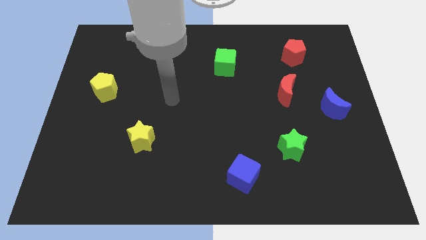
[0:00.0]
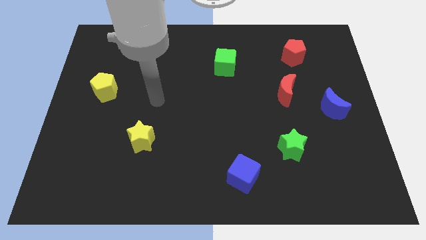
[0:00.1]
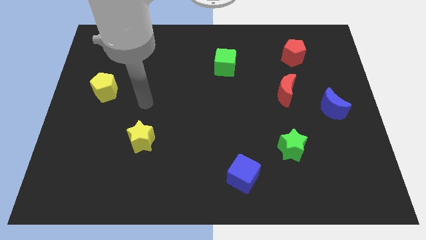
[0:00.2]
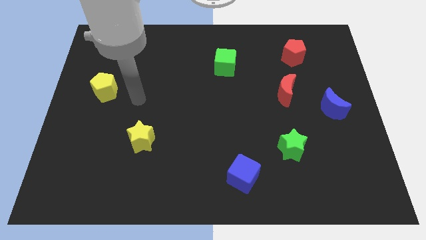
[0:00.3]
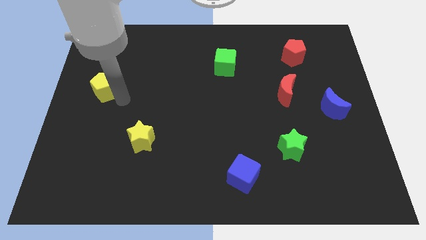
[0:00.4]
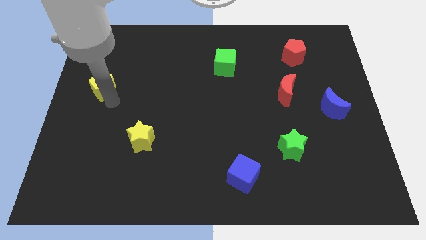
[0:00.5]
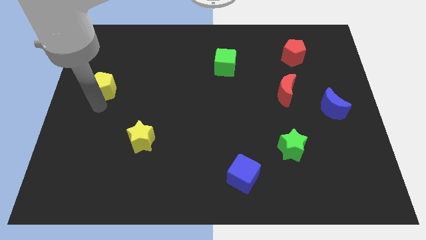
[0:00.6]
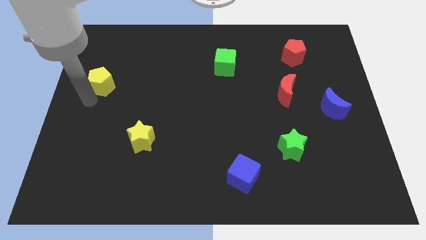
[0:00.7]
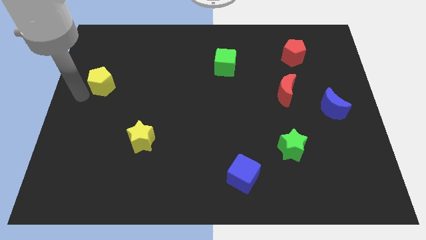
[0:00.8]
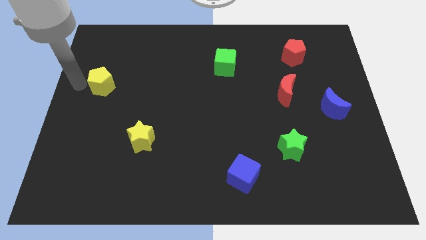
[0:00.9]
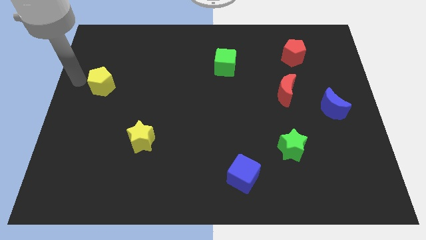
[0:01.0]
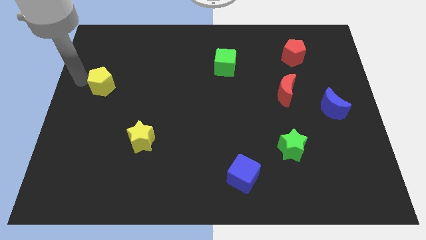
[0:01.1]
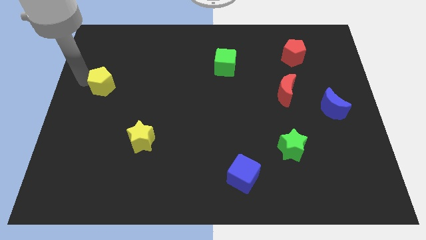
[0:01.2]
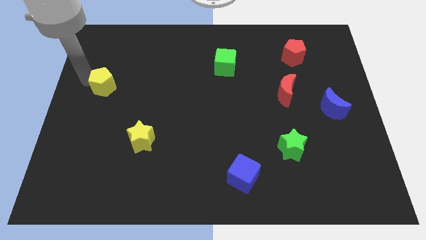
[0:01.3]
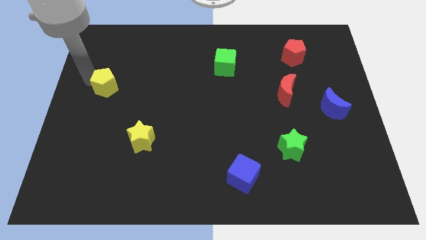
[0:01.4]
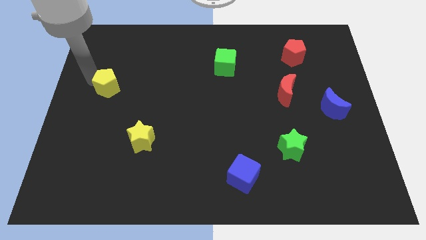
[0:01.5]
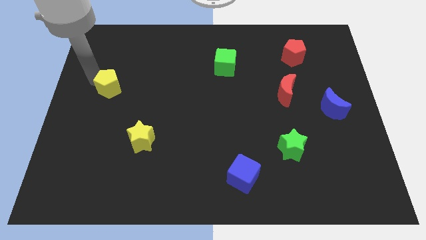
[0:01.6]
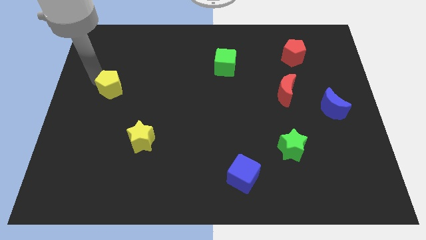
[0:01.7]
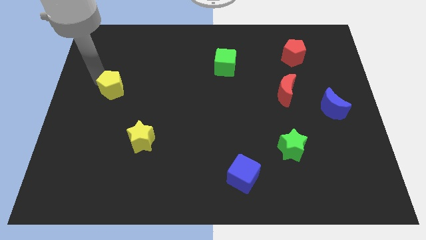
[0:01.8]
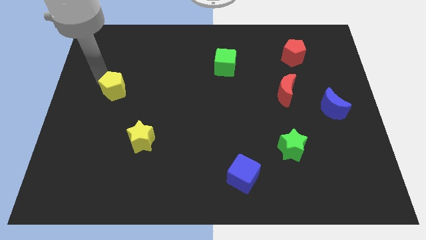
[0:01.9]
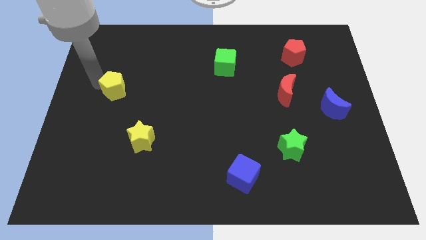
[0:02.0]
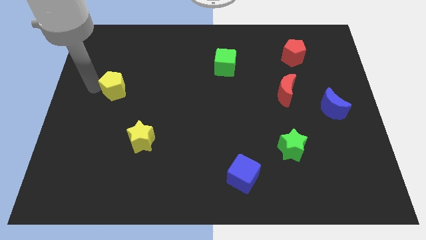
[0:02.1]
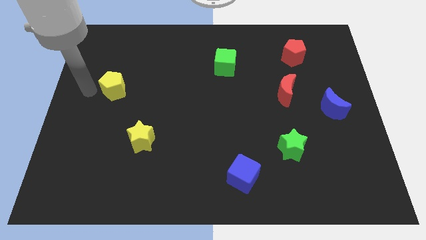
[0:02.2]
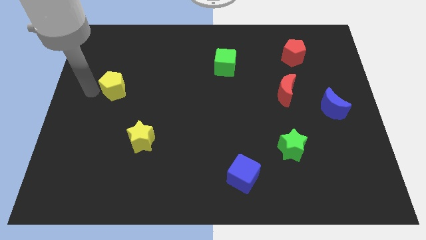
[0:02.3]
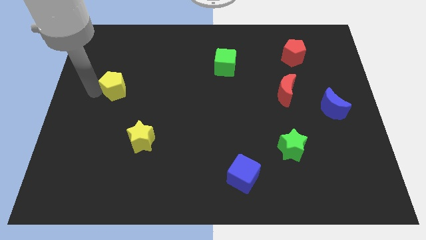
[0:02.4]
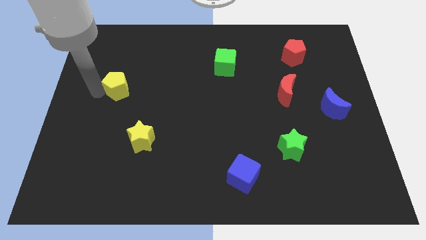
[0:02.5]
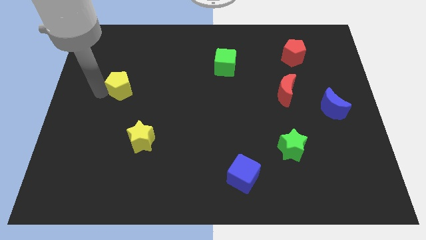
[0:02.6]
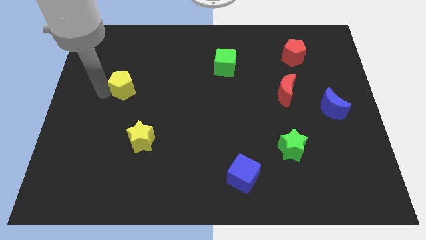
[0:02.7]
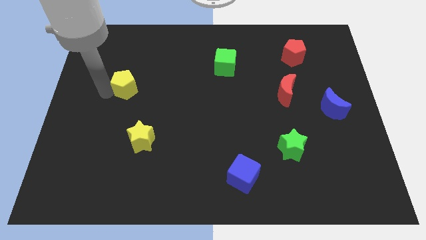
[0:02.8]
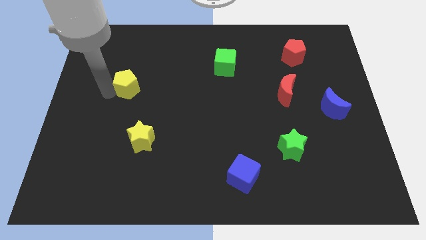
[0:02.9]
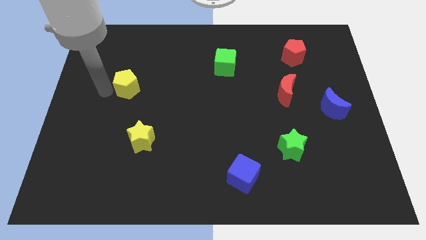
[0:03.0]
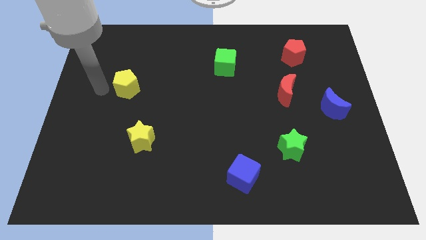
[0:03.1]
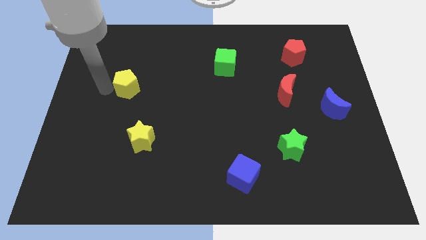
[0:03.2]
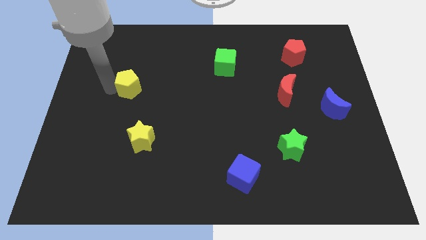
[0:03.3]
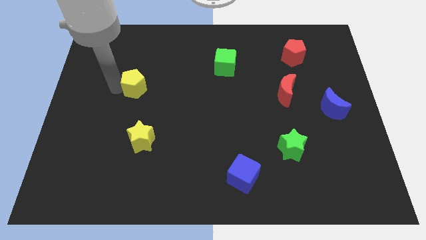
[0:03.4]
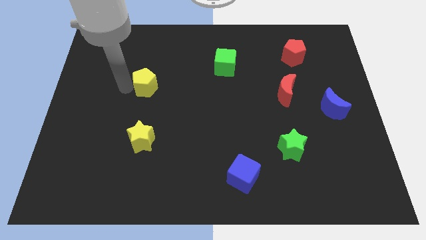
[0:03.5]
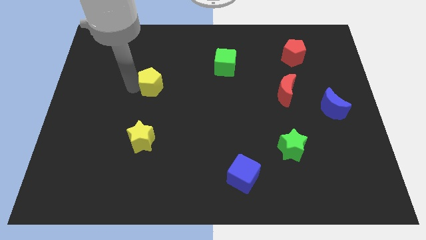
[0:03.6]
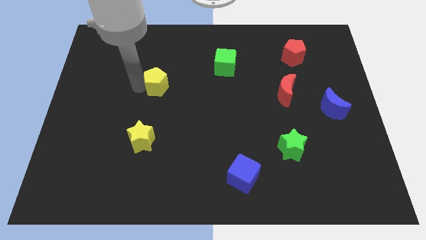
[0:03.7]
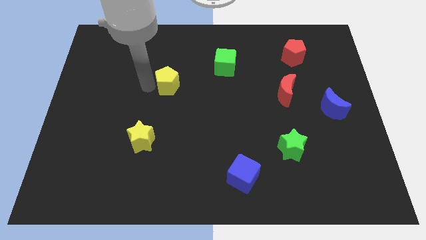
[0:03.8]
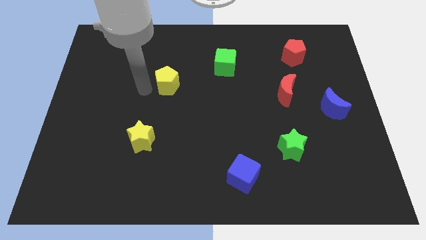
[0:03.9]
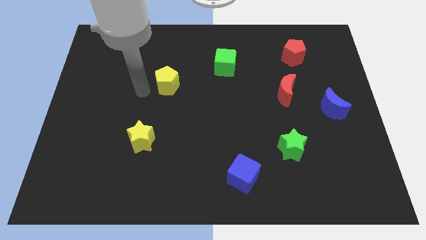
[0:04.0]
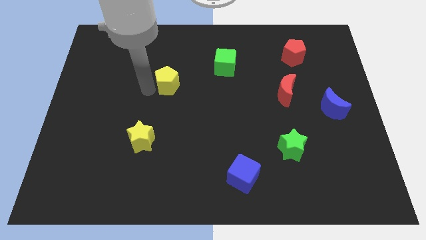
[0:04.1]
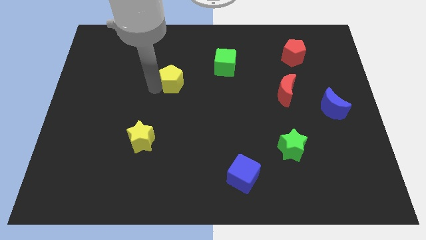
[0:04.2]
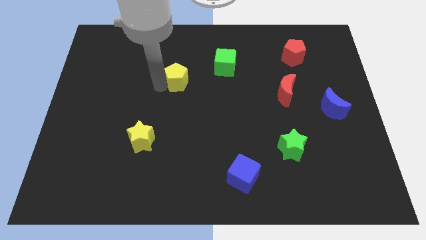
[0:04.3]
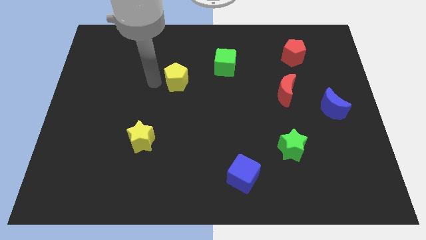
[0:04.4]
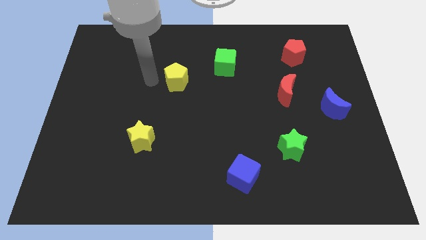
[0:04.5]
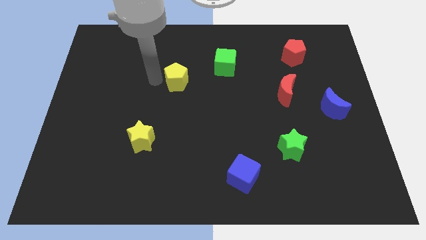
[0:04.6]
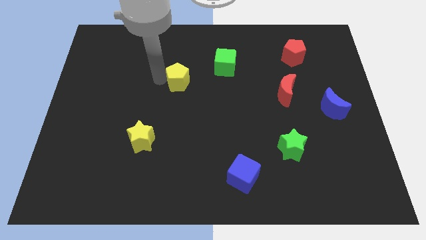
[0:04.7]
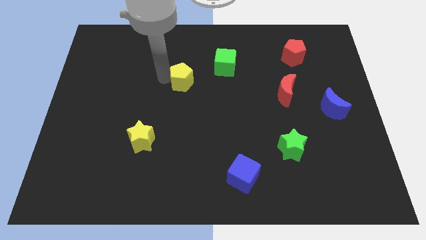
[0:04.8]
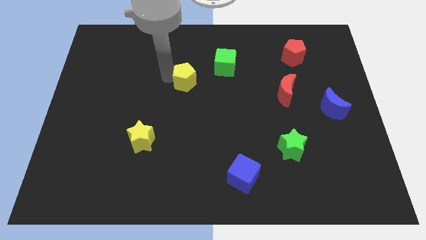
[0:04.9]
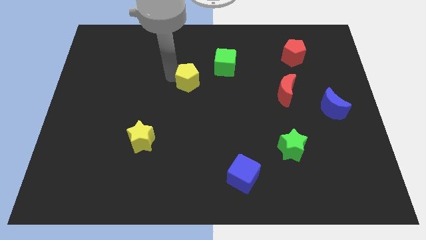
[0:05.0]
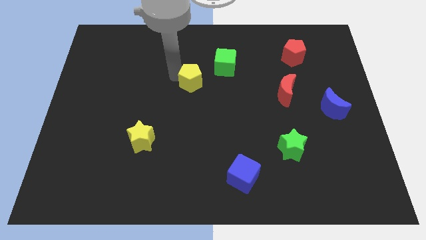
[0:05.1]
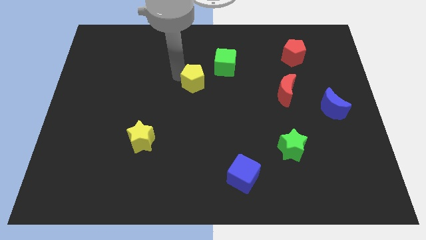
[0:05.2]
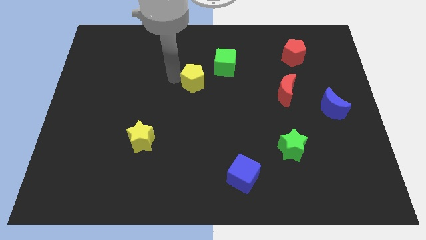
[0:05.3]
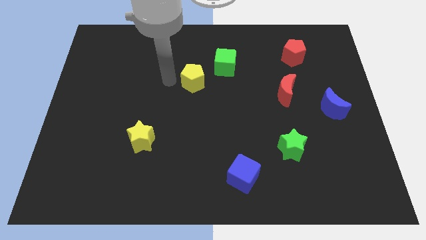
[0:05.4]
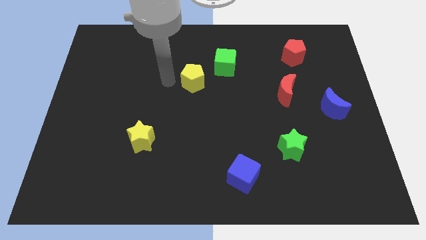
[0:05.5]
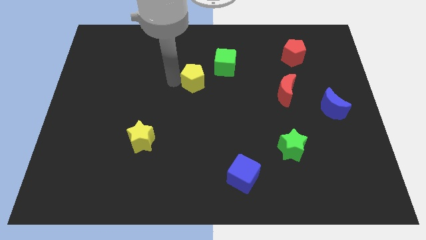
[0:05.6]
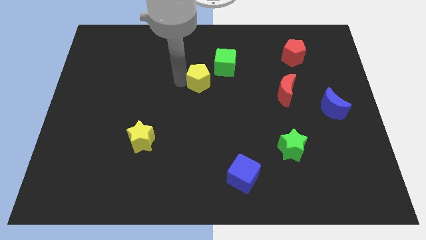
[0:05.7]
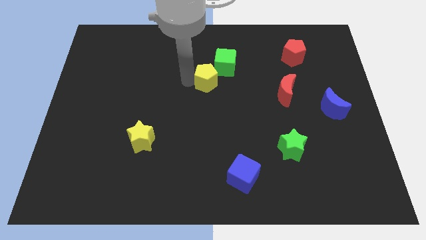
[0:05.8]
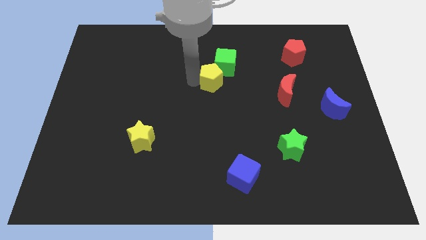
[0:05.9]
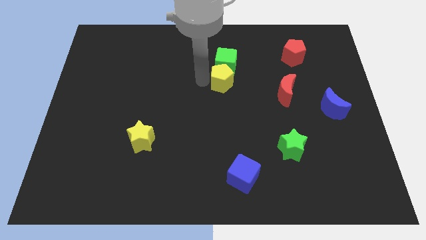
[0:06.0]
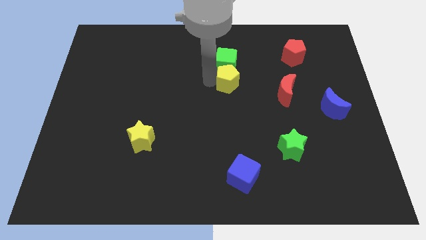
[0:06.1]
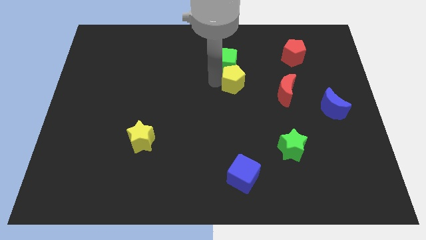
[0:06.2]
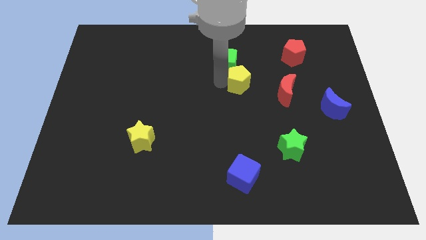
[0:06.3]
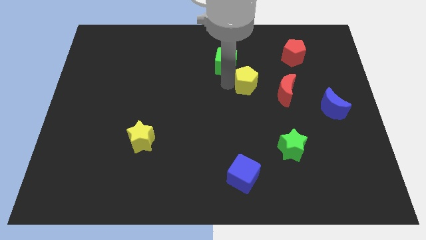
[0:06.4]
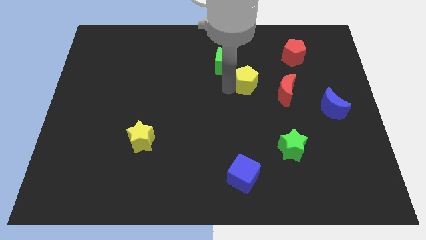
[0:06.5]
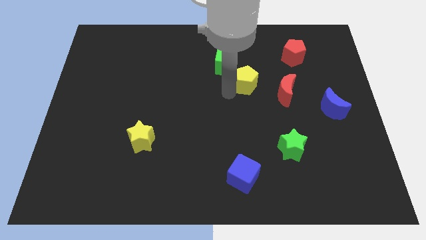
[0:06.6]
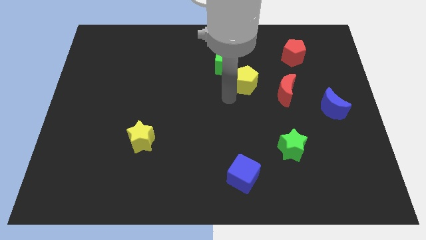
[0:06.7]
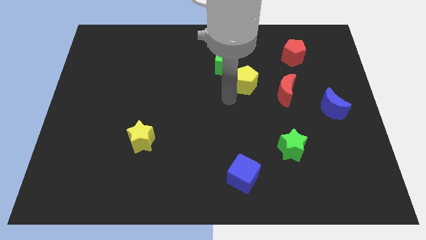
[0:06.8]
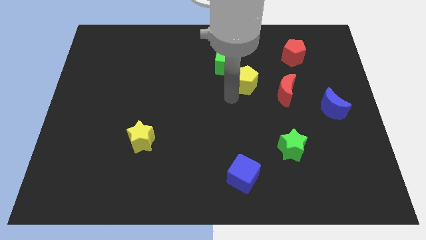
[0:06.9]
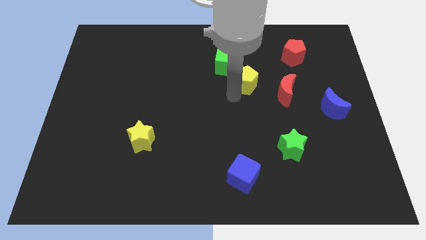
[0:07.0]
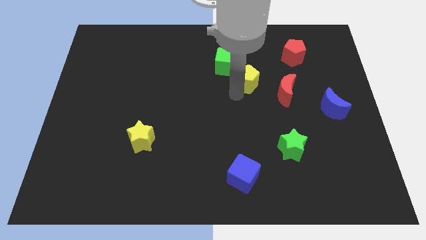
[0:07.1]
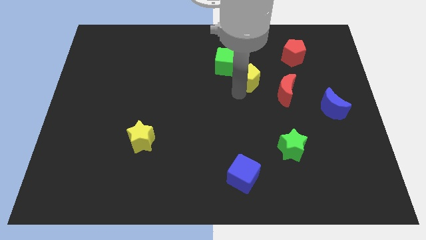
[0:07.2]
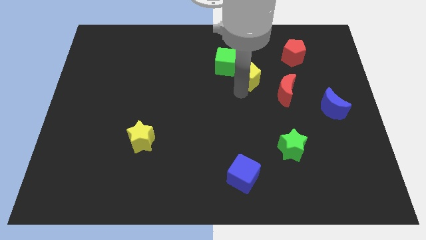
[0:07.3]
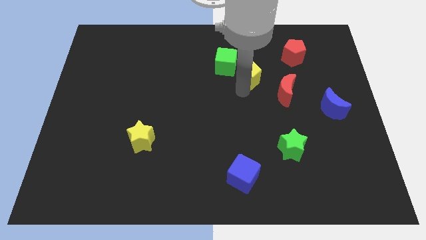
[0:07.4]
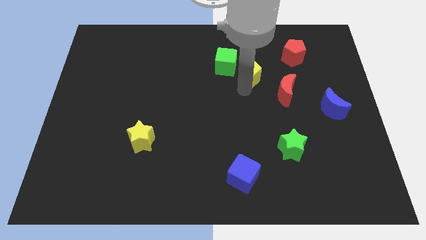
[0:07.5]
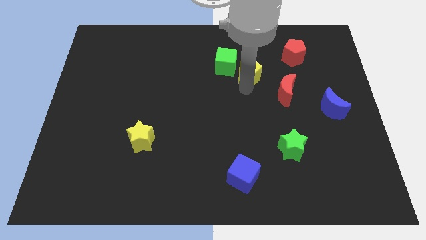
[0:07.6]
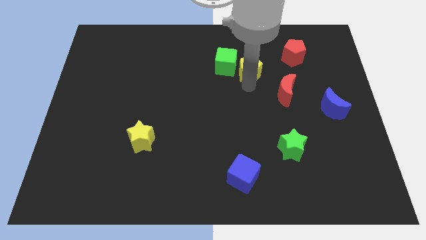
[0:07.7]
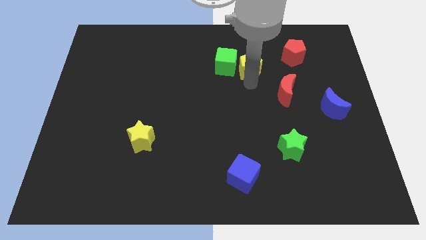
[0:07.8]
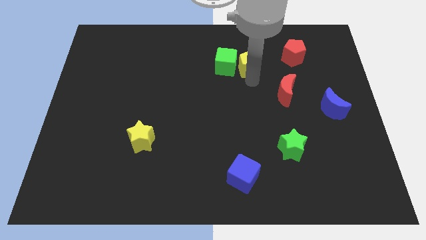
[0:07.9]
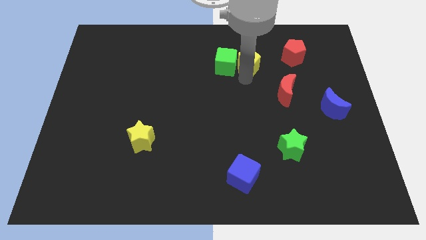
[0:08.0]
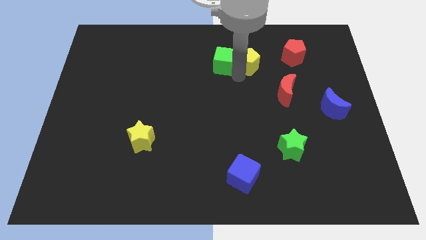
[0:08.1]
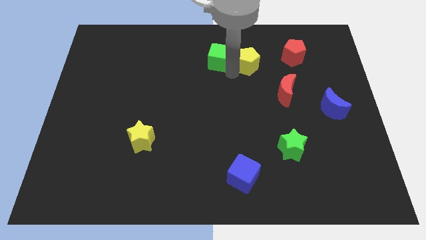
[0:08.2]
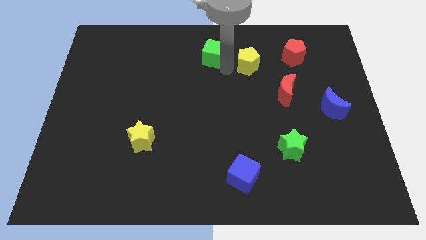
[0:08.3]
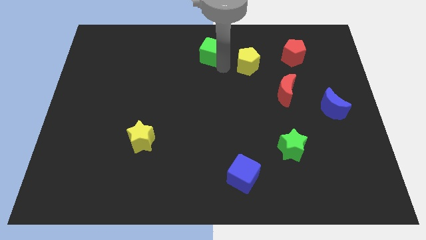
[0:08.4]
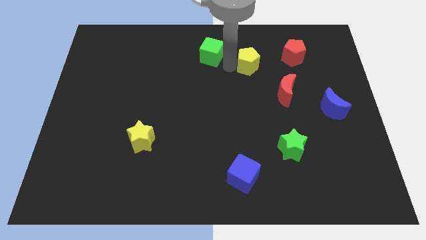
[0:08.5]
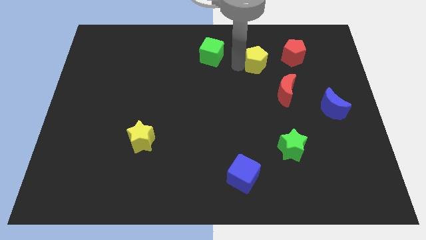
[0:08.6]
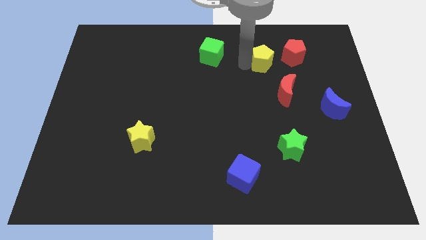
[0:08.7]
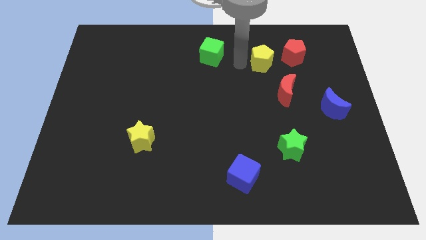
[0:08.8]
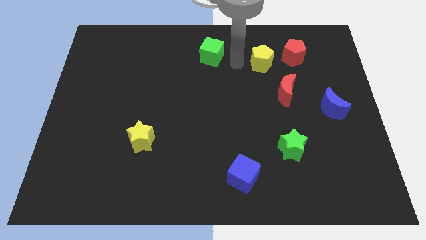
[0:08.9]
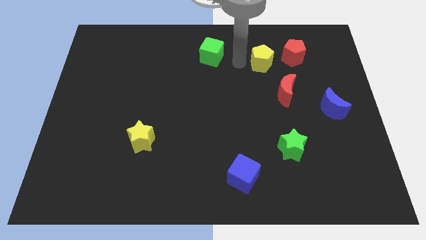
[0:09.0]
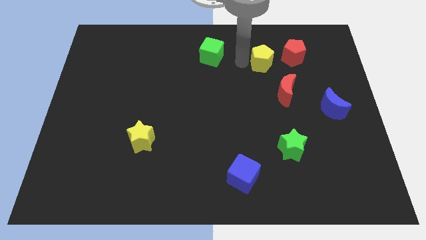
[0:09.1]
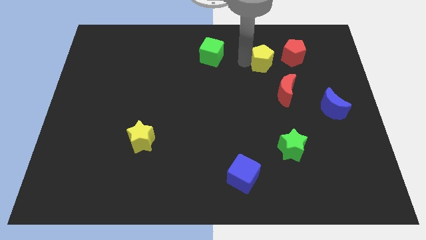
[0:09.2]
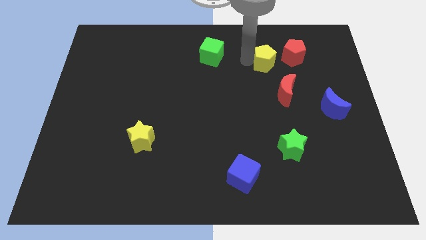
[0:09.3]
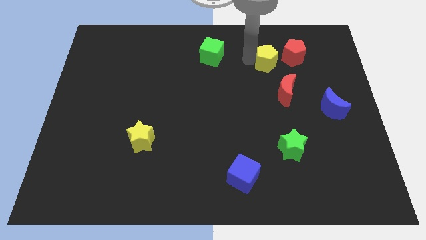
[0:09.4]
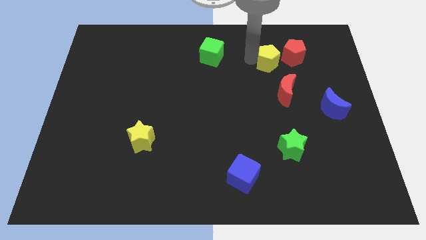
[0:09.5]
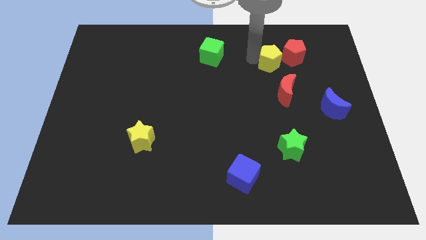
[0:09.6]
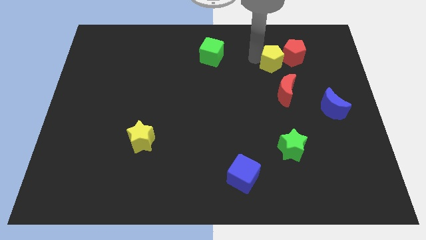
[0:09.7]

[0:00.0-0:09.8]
push the yellow pentagon to the red pentagon
